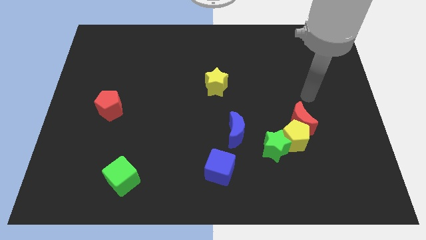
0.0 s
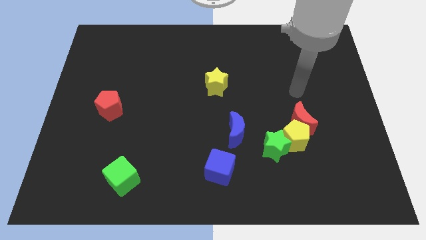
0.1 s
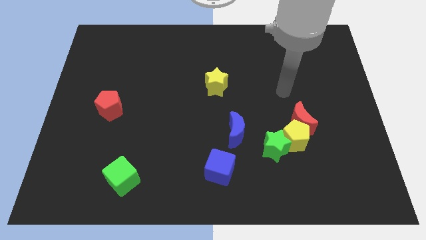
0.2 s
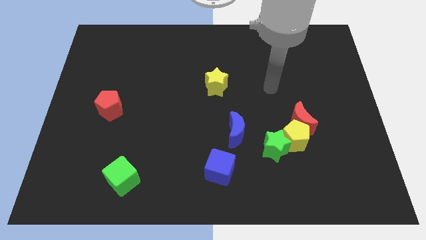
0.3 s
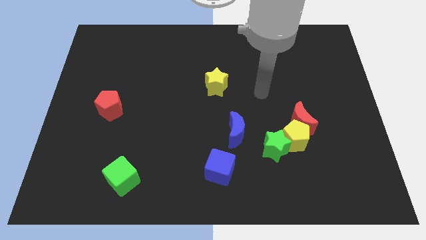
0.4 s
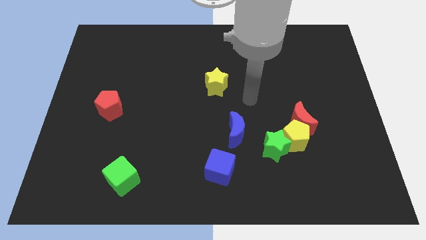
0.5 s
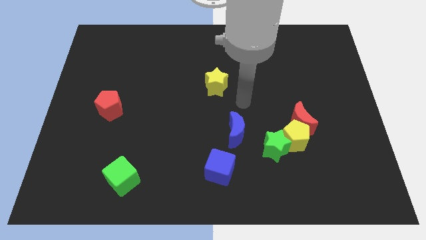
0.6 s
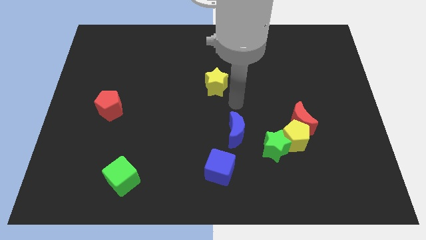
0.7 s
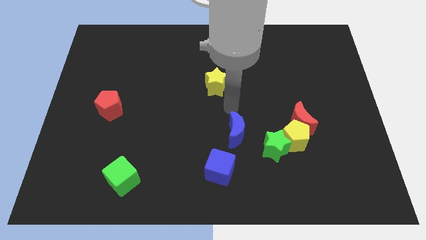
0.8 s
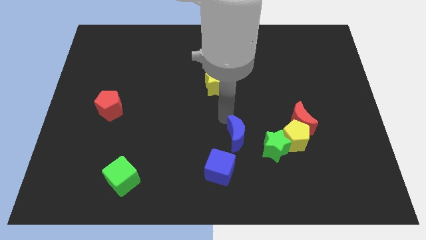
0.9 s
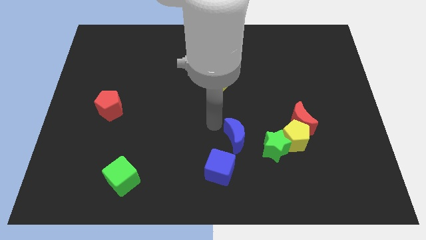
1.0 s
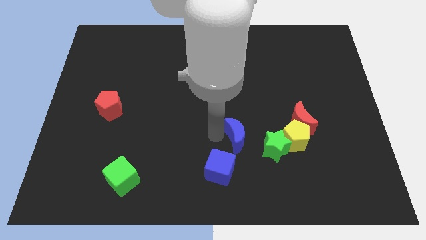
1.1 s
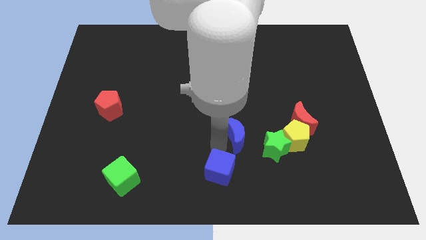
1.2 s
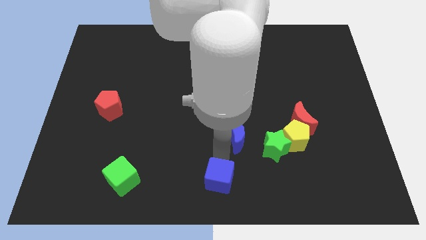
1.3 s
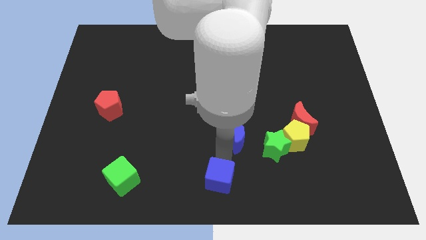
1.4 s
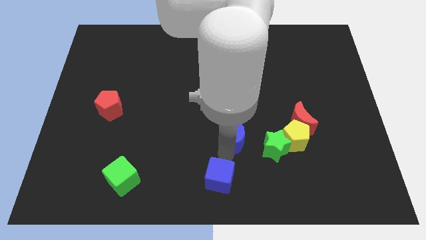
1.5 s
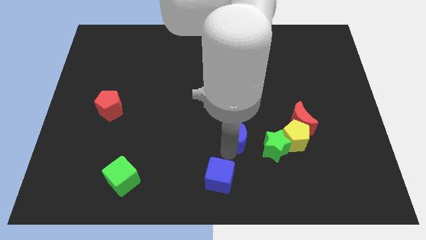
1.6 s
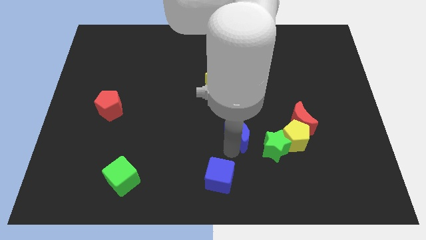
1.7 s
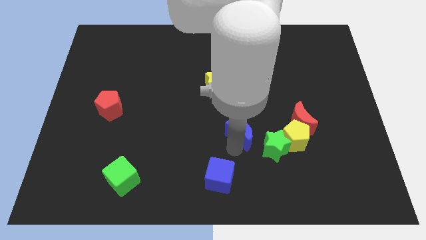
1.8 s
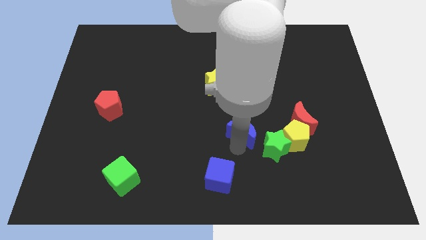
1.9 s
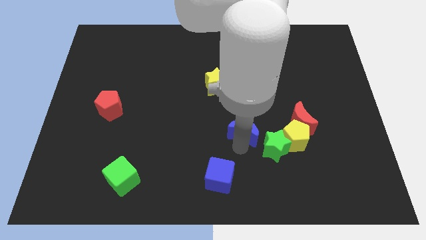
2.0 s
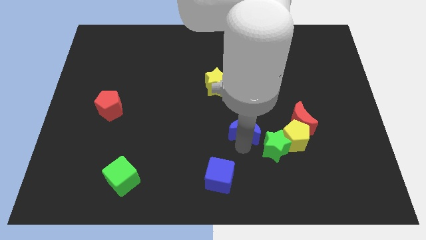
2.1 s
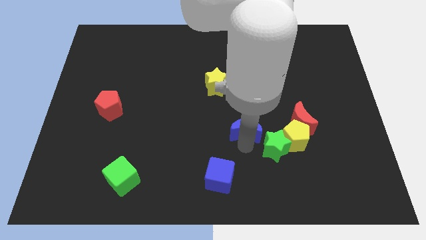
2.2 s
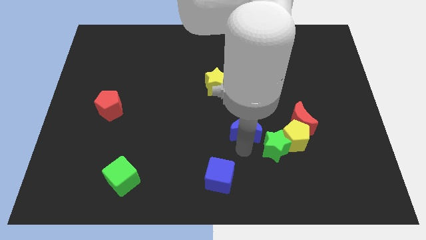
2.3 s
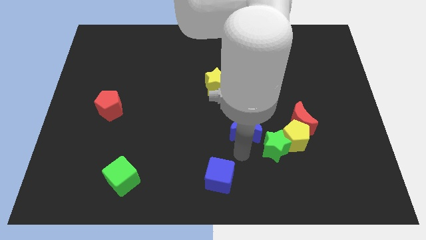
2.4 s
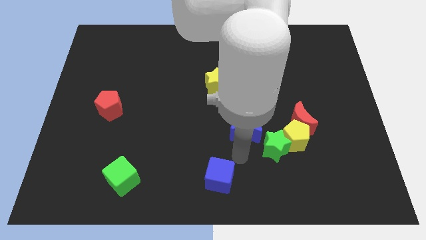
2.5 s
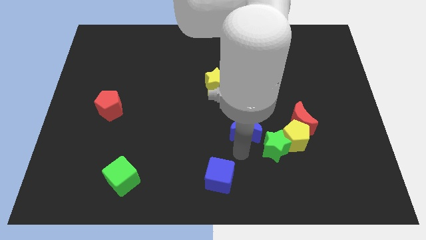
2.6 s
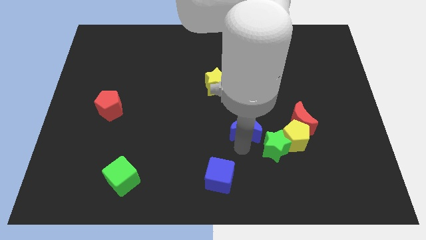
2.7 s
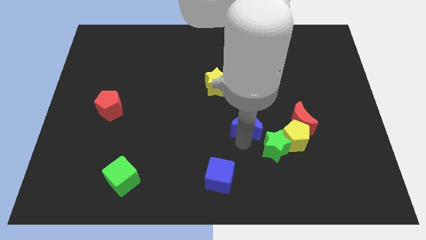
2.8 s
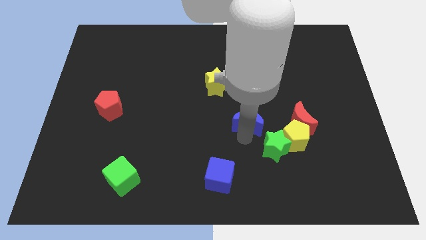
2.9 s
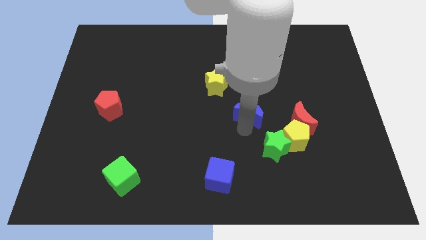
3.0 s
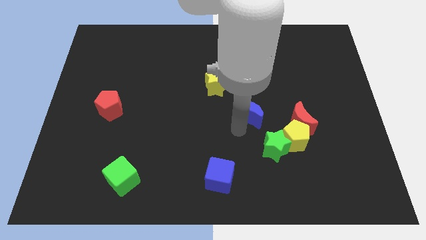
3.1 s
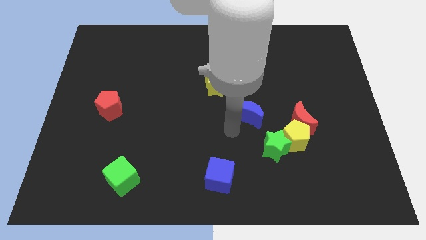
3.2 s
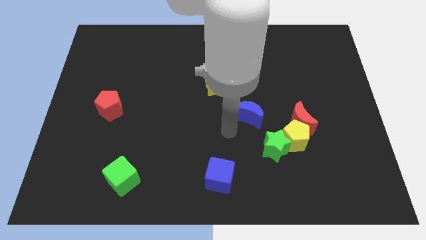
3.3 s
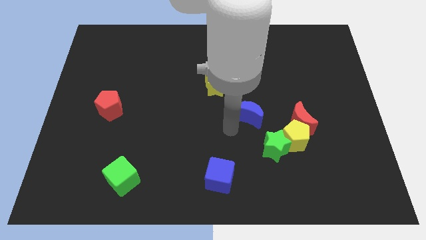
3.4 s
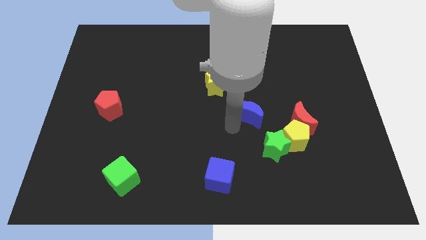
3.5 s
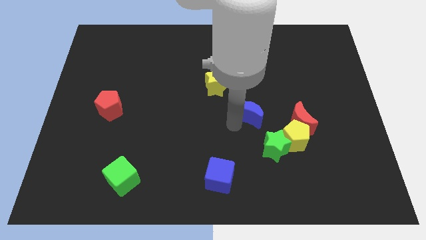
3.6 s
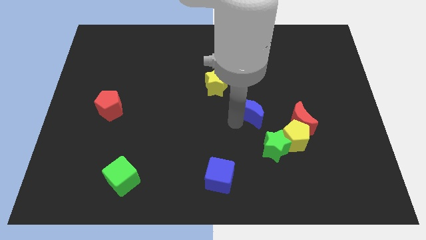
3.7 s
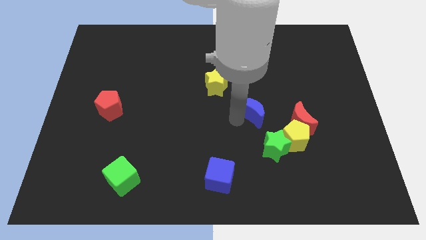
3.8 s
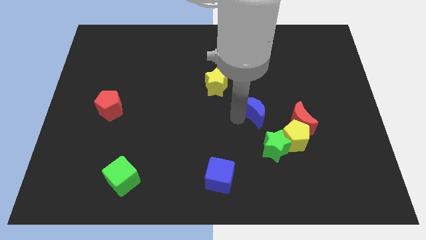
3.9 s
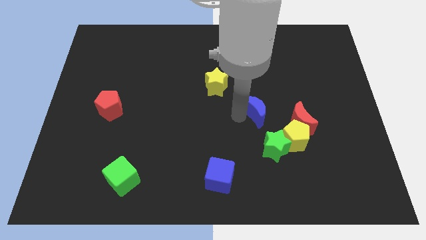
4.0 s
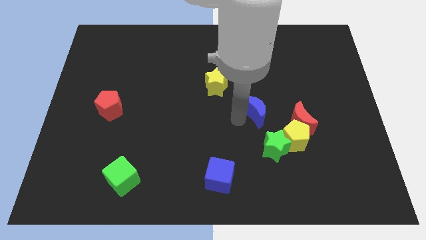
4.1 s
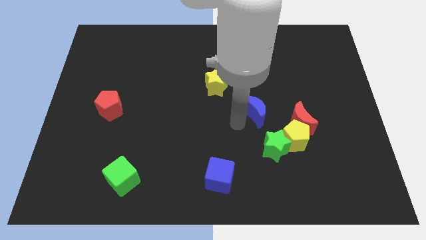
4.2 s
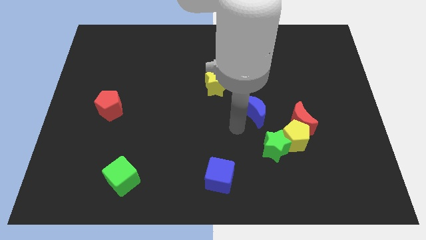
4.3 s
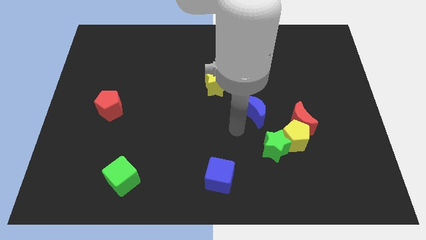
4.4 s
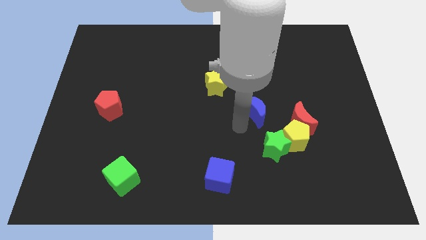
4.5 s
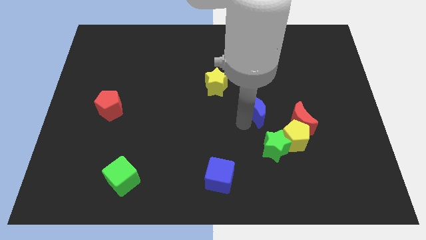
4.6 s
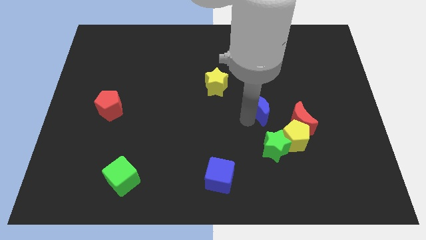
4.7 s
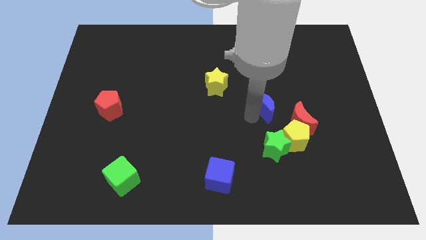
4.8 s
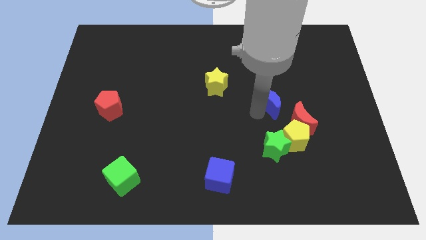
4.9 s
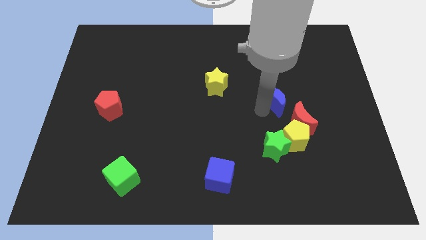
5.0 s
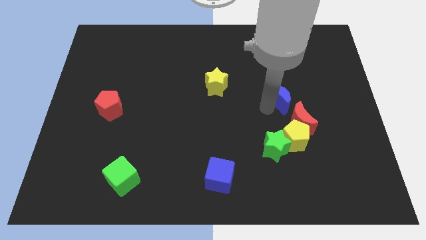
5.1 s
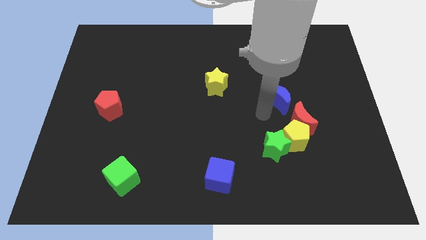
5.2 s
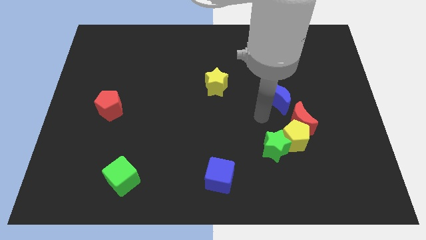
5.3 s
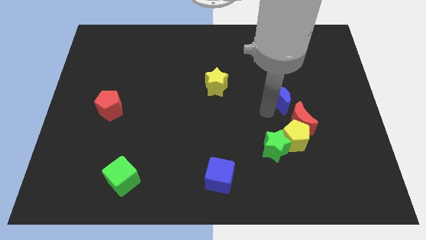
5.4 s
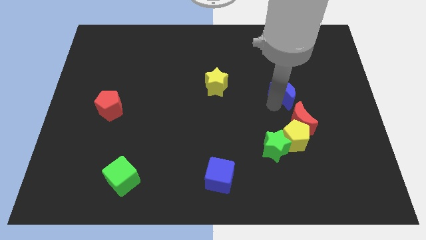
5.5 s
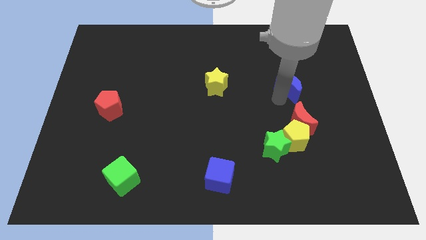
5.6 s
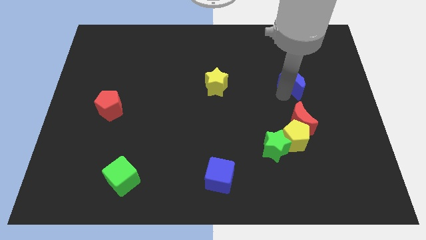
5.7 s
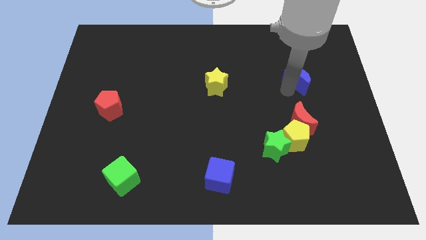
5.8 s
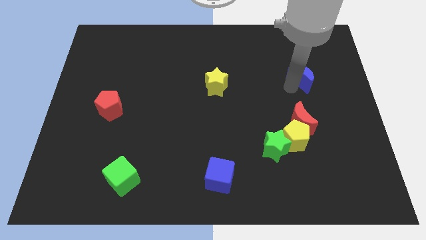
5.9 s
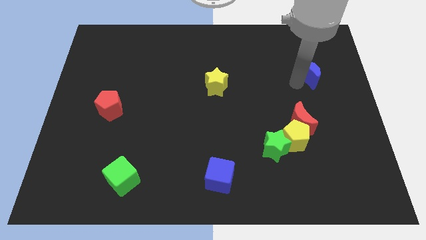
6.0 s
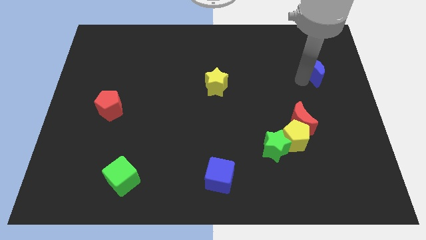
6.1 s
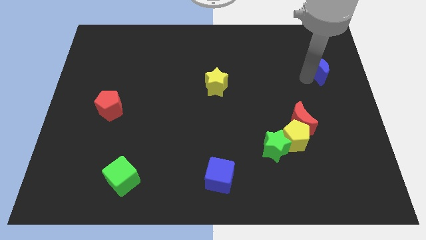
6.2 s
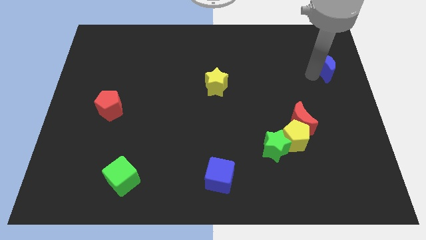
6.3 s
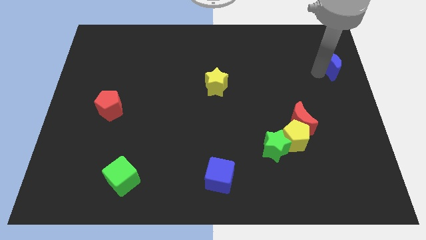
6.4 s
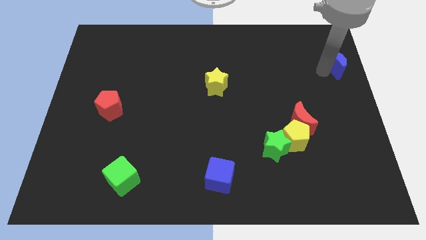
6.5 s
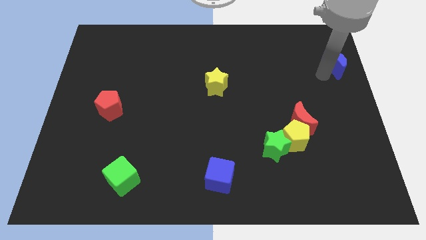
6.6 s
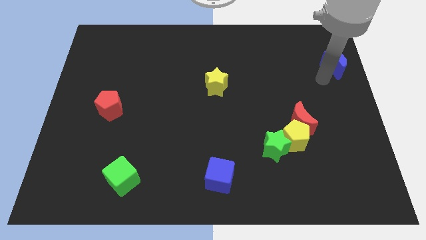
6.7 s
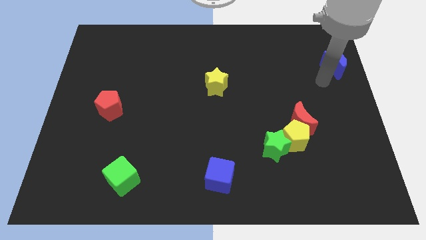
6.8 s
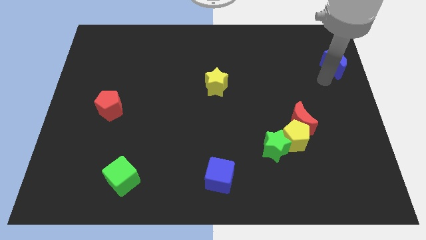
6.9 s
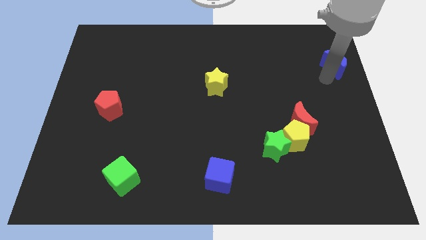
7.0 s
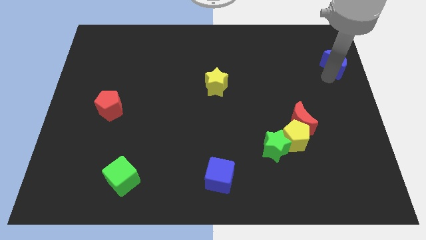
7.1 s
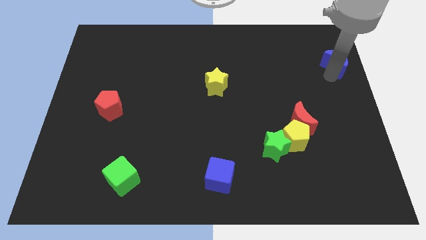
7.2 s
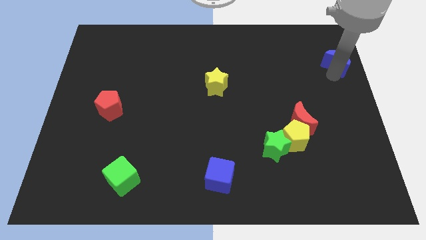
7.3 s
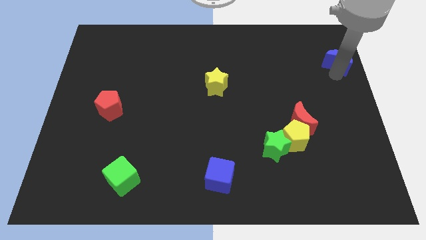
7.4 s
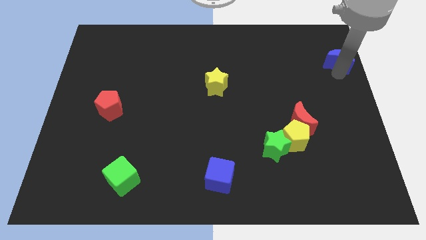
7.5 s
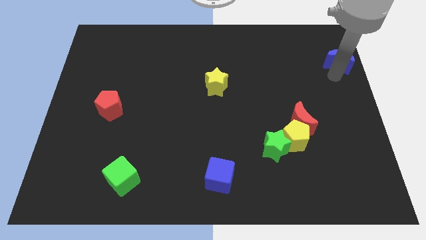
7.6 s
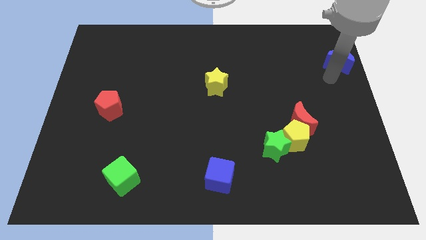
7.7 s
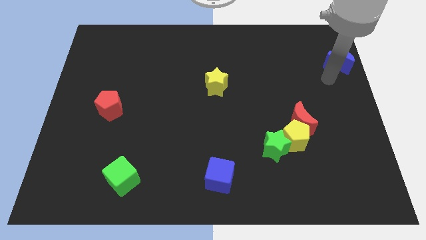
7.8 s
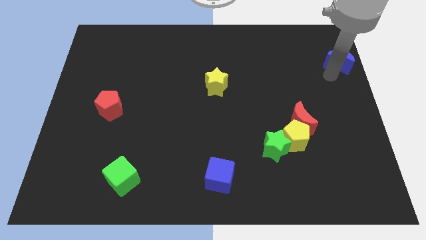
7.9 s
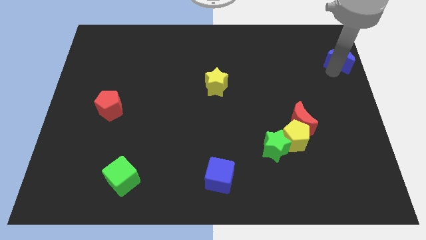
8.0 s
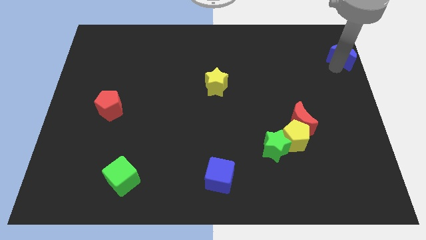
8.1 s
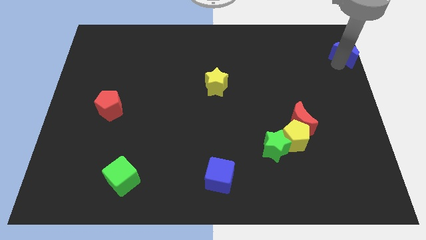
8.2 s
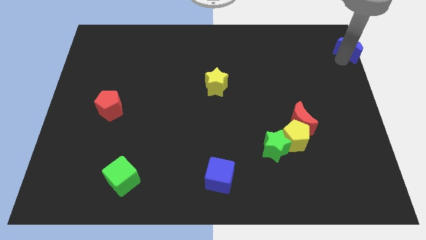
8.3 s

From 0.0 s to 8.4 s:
put the blue moon to the top right corner
